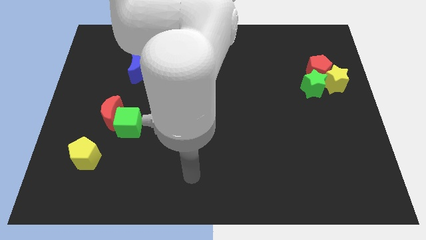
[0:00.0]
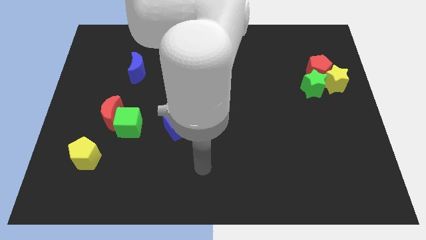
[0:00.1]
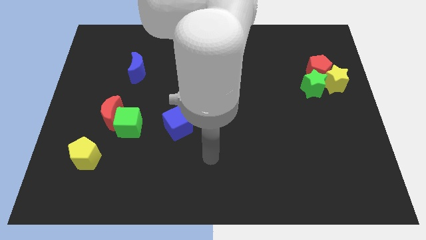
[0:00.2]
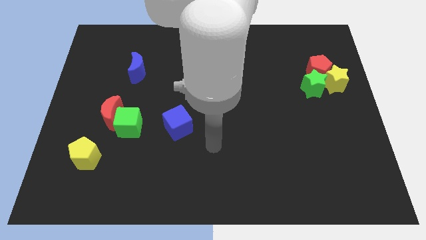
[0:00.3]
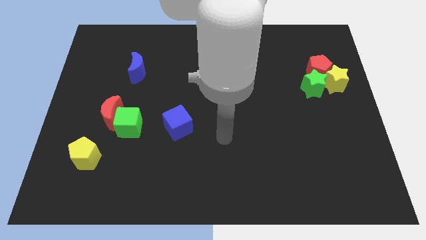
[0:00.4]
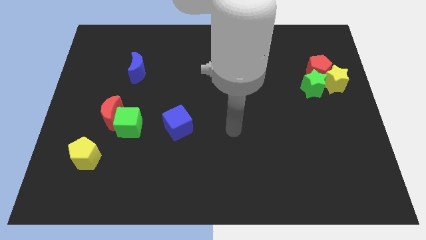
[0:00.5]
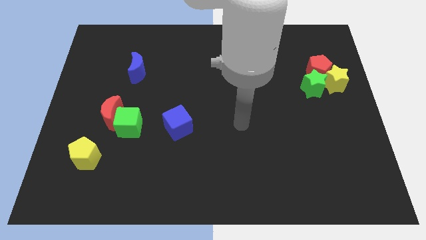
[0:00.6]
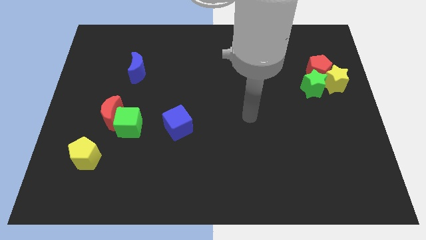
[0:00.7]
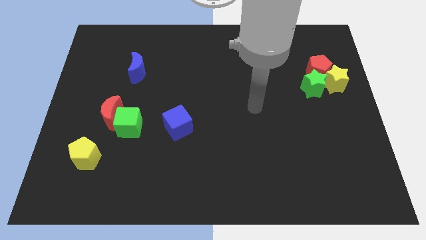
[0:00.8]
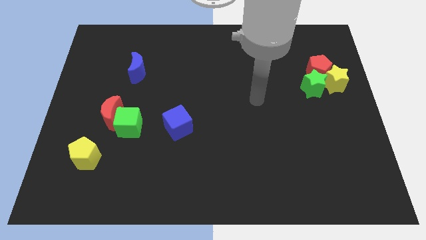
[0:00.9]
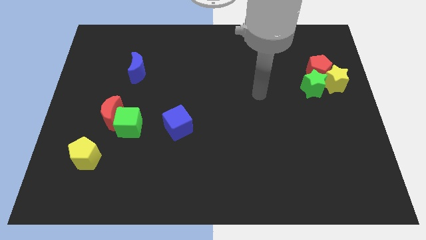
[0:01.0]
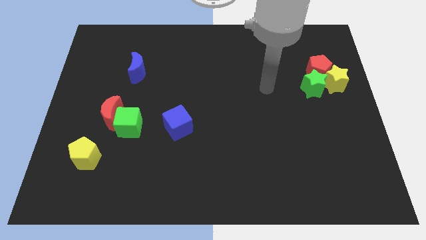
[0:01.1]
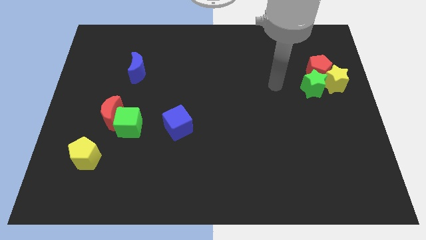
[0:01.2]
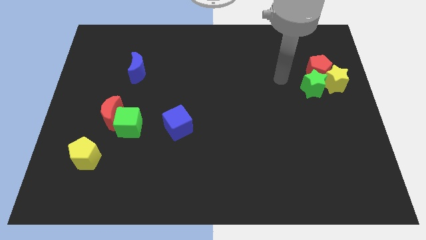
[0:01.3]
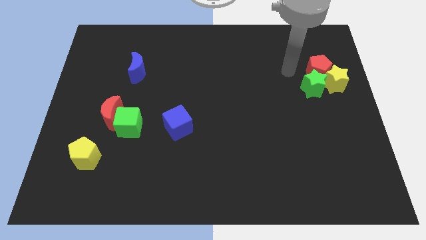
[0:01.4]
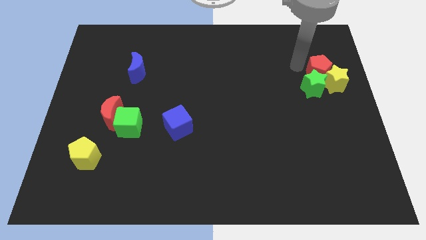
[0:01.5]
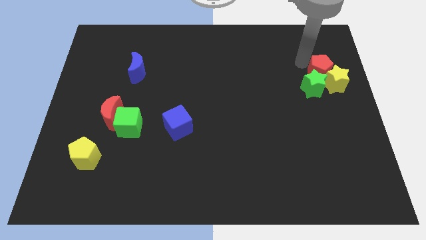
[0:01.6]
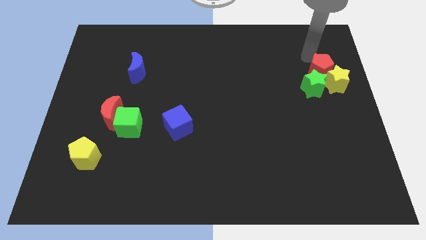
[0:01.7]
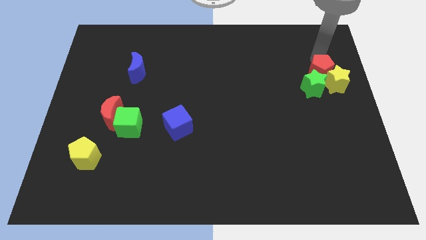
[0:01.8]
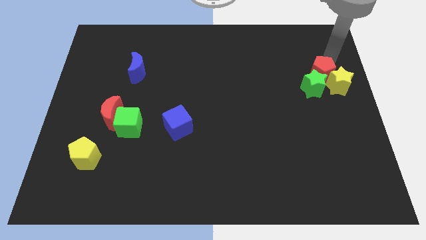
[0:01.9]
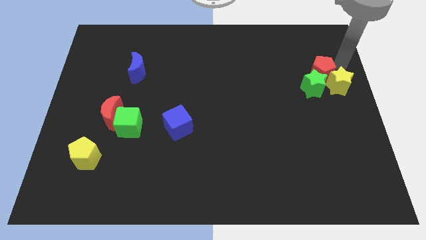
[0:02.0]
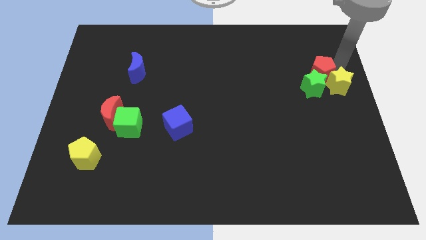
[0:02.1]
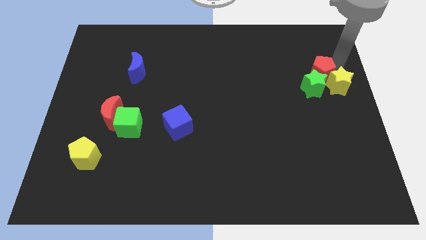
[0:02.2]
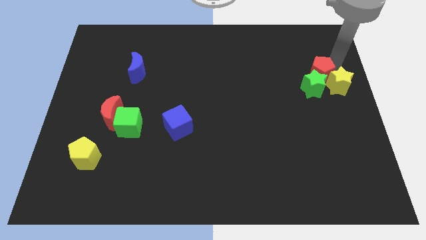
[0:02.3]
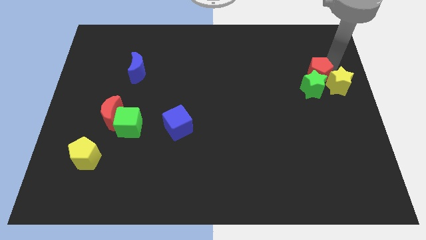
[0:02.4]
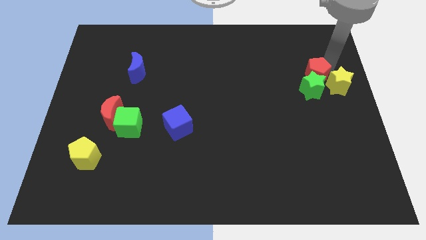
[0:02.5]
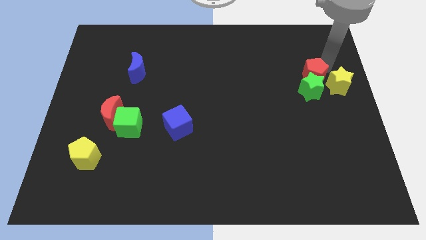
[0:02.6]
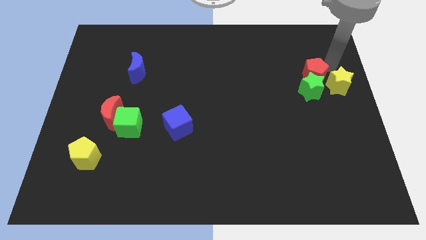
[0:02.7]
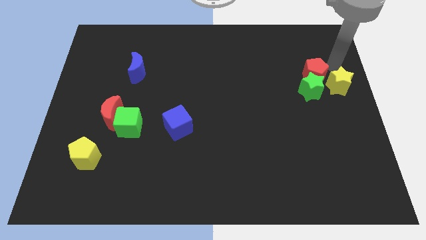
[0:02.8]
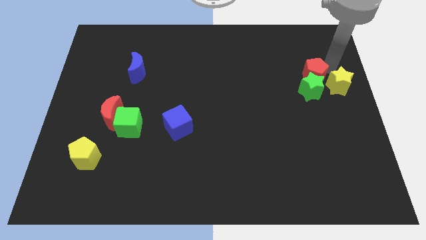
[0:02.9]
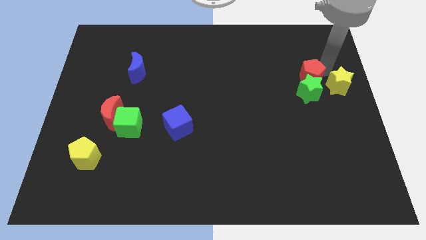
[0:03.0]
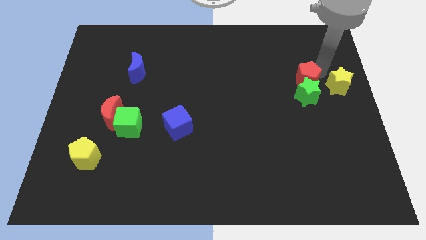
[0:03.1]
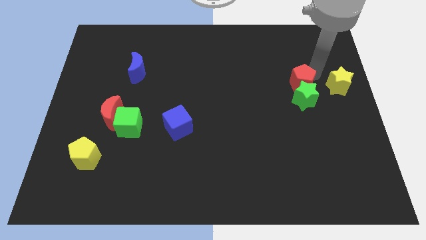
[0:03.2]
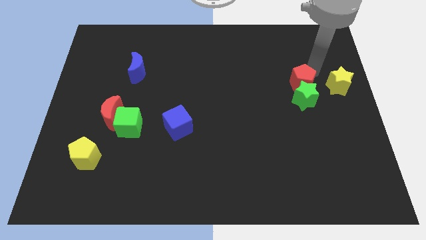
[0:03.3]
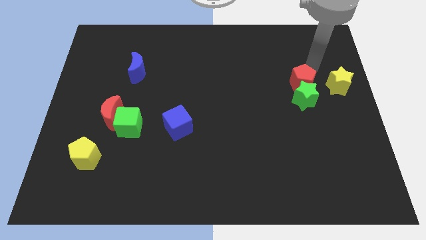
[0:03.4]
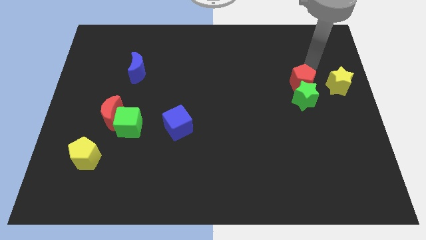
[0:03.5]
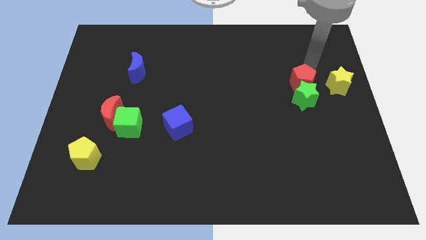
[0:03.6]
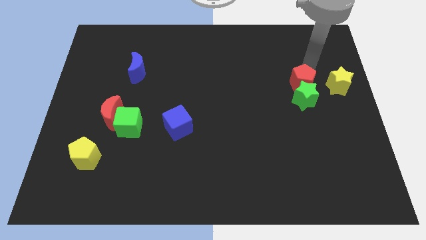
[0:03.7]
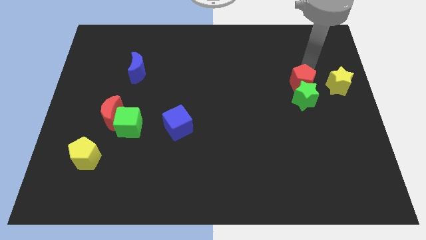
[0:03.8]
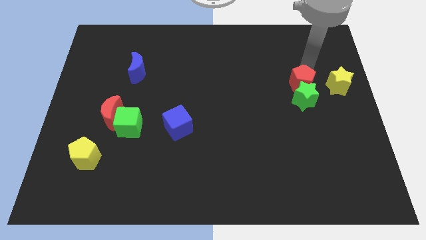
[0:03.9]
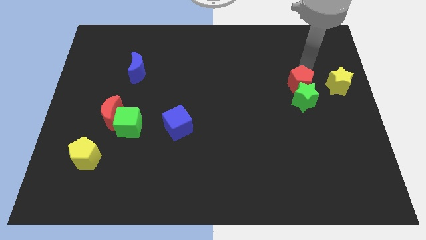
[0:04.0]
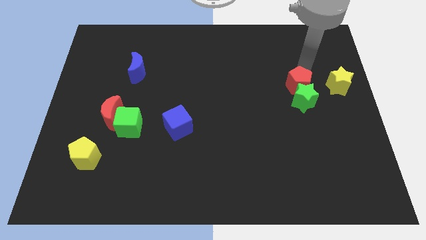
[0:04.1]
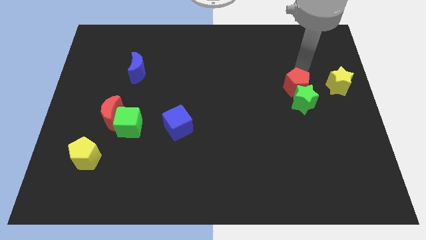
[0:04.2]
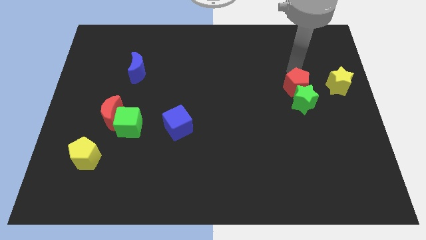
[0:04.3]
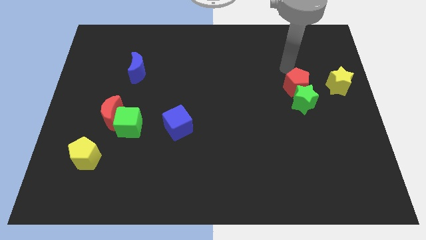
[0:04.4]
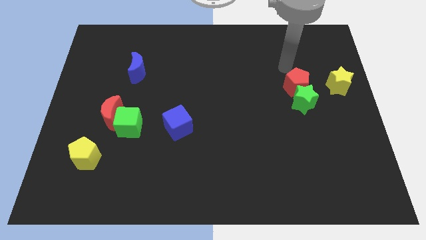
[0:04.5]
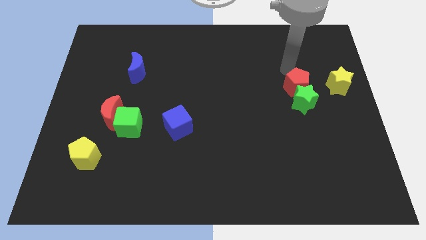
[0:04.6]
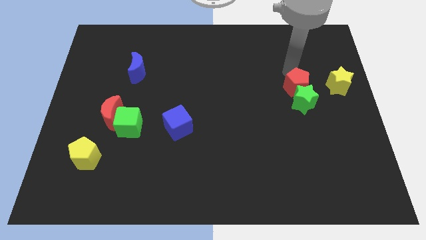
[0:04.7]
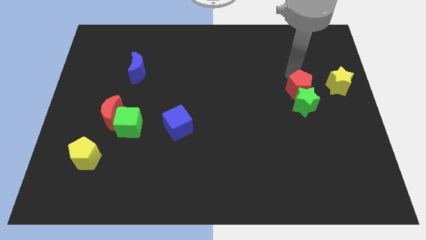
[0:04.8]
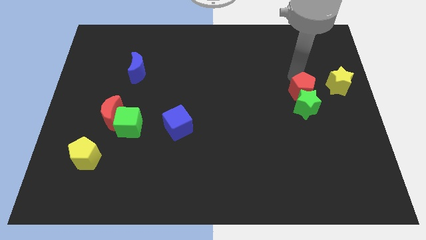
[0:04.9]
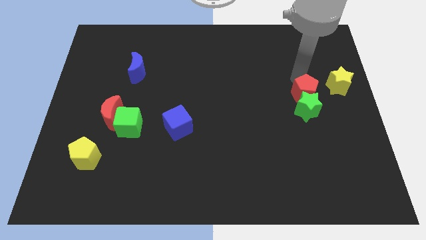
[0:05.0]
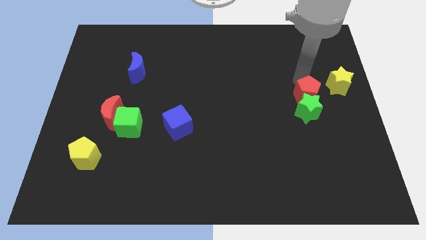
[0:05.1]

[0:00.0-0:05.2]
slide the red pentagon downwards slightly

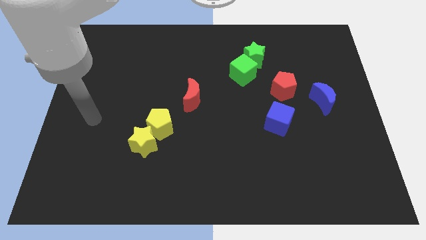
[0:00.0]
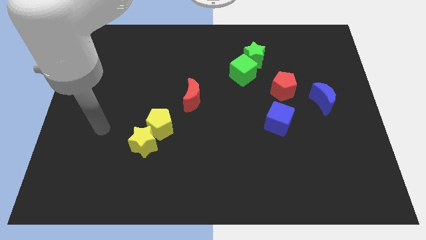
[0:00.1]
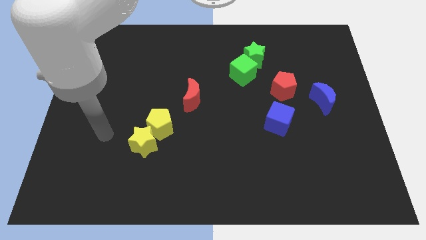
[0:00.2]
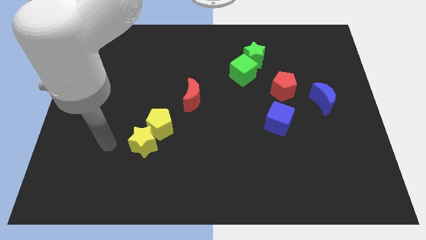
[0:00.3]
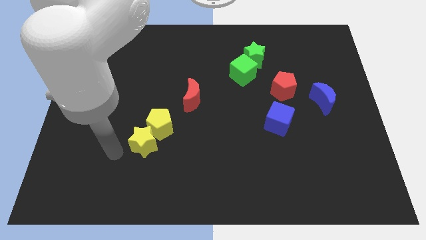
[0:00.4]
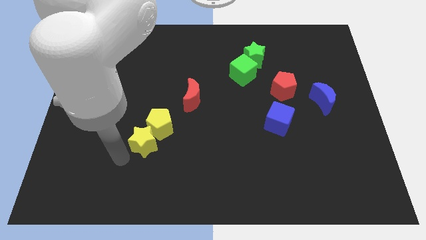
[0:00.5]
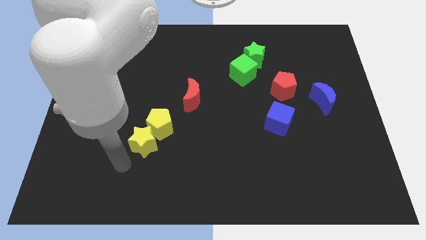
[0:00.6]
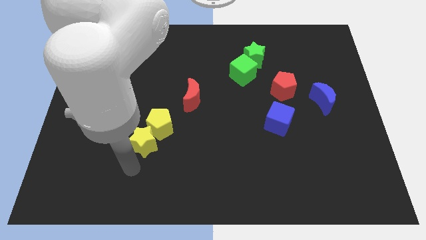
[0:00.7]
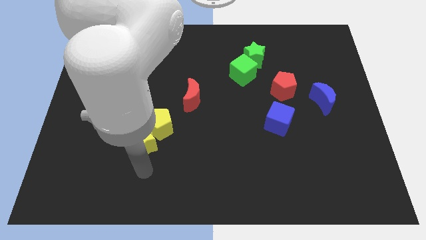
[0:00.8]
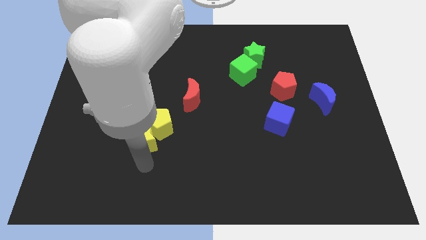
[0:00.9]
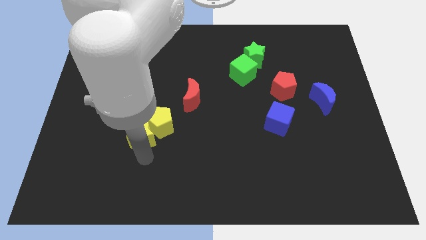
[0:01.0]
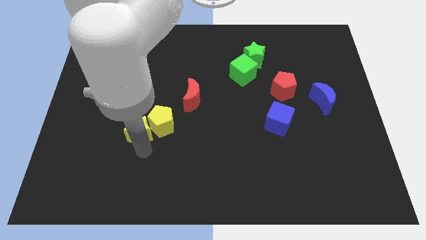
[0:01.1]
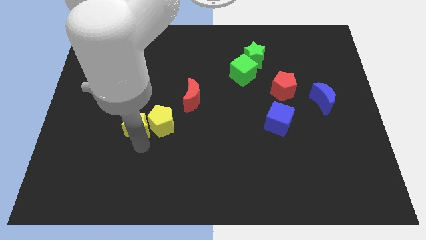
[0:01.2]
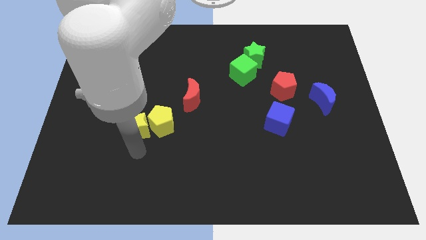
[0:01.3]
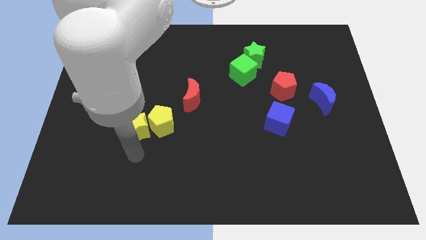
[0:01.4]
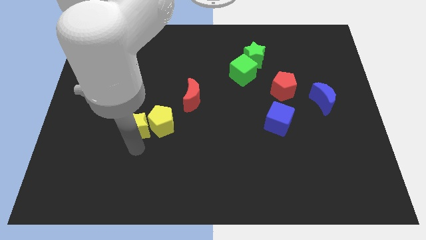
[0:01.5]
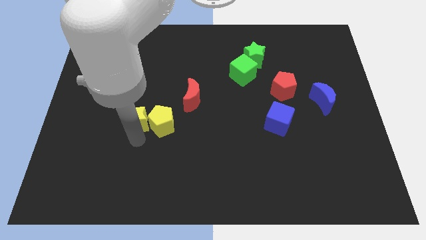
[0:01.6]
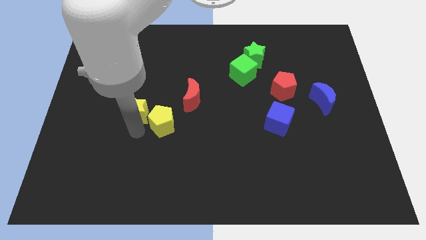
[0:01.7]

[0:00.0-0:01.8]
slide the yellow star upwards a little

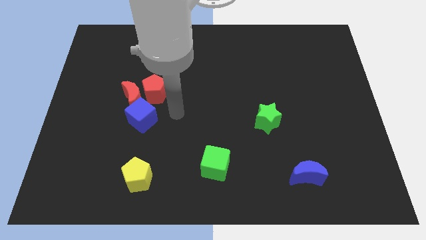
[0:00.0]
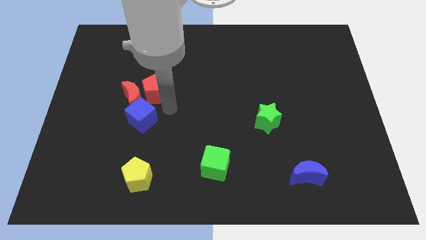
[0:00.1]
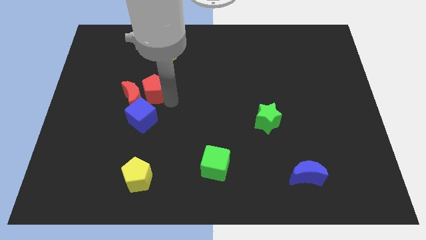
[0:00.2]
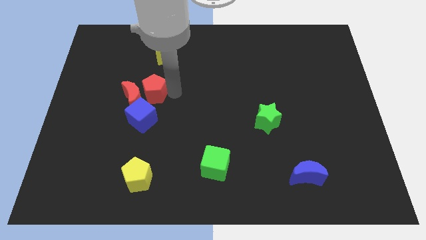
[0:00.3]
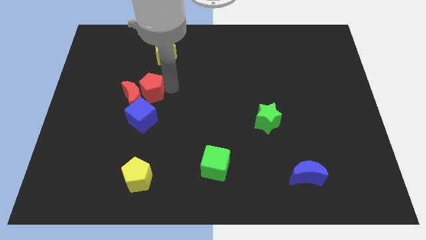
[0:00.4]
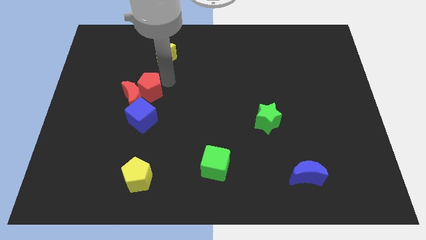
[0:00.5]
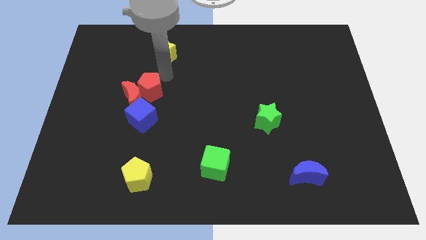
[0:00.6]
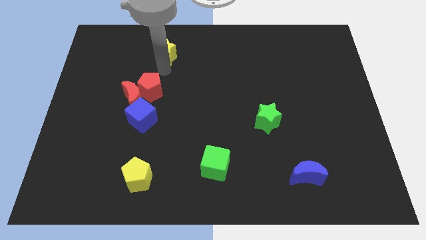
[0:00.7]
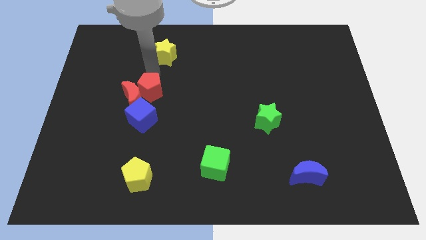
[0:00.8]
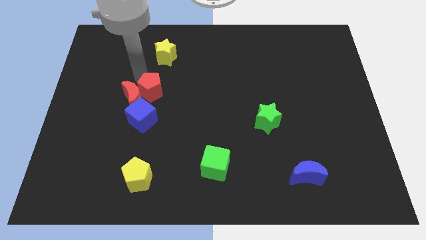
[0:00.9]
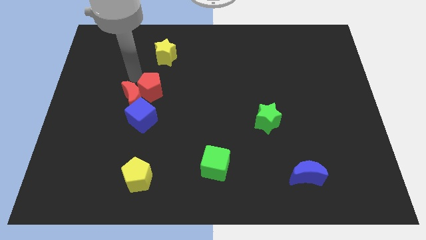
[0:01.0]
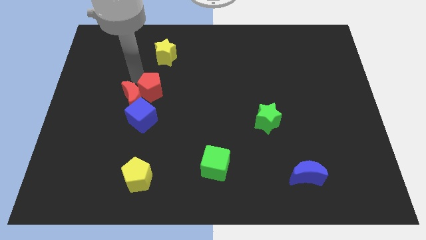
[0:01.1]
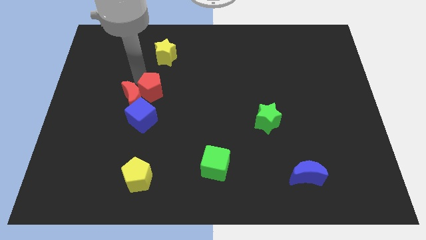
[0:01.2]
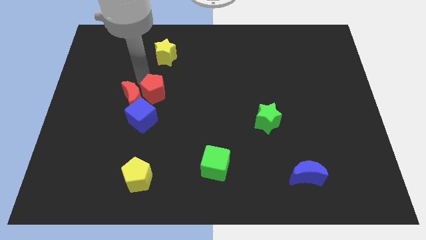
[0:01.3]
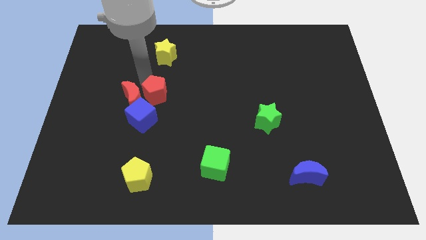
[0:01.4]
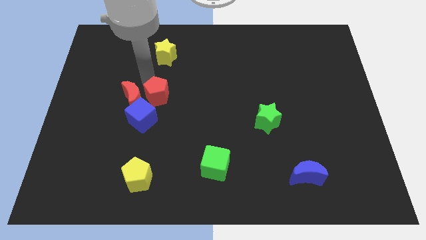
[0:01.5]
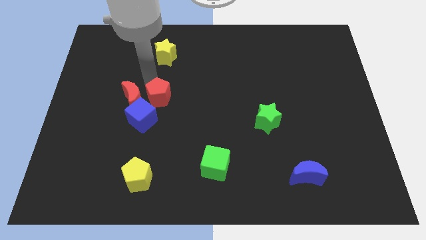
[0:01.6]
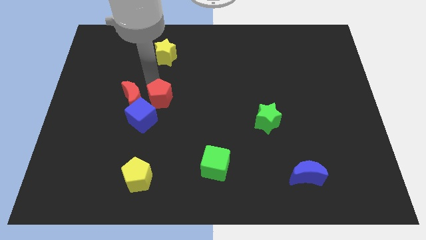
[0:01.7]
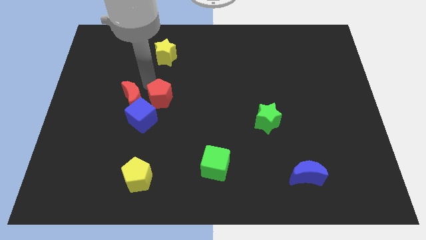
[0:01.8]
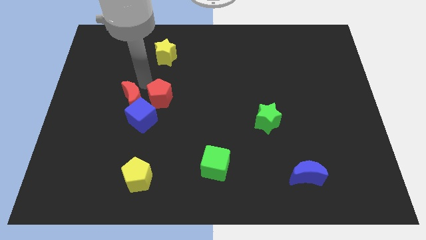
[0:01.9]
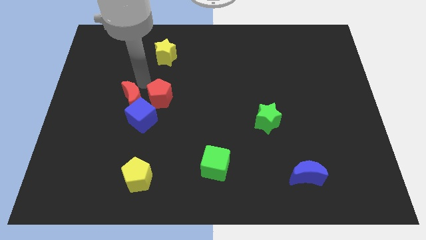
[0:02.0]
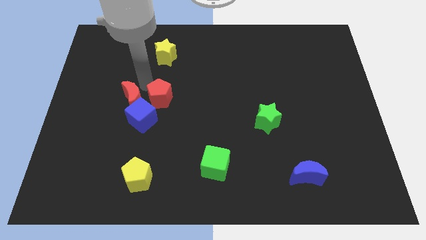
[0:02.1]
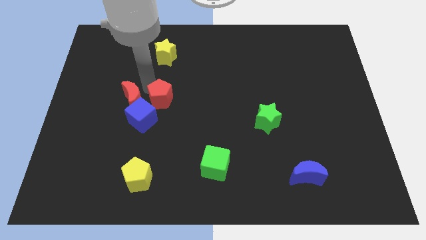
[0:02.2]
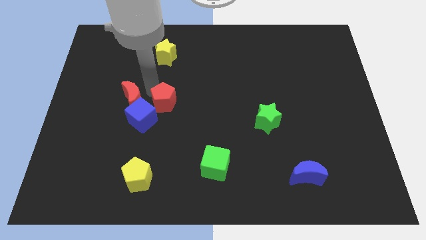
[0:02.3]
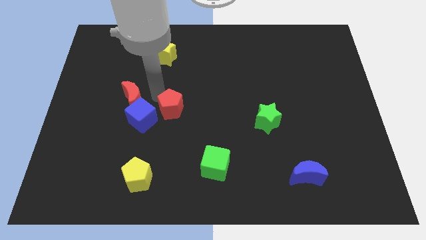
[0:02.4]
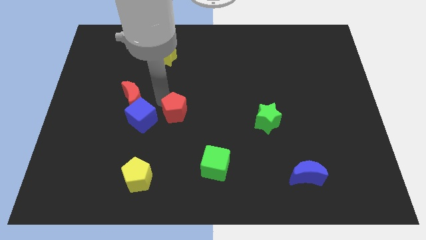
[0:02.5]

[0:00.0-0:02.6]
move the red pentagon somewhat down and right
